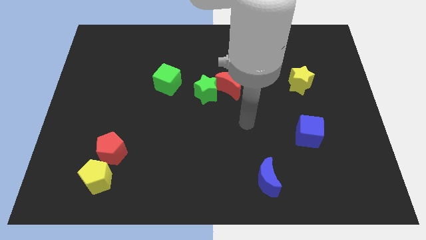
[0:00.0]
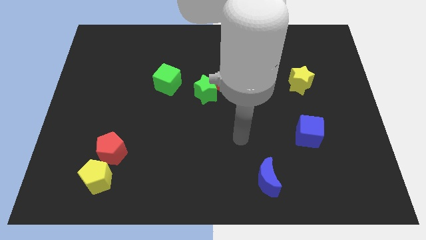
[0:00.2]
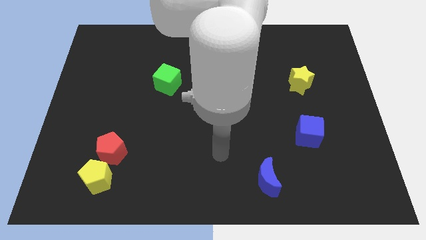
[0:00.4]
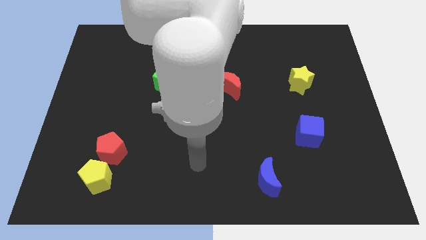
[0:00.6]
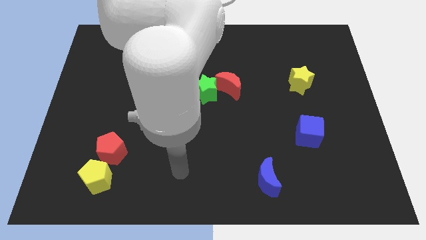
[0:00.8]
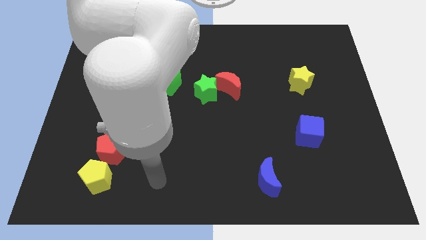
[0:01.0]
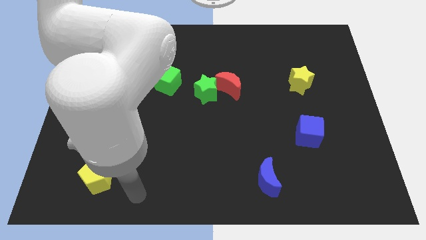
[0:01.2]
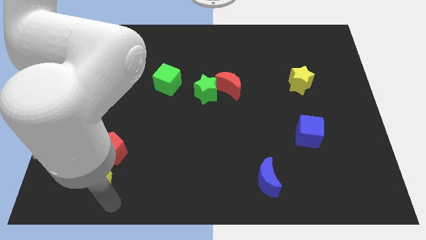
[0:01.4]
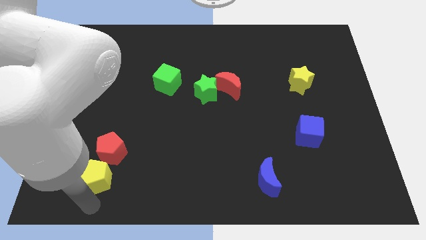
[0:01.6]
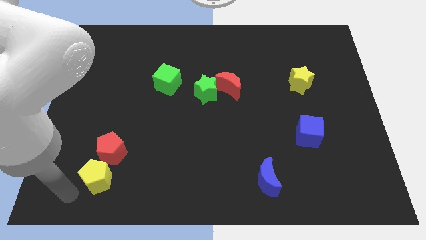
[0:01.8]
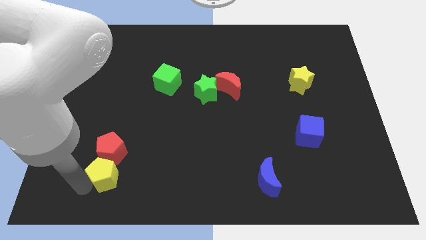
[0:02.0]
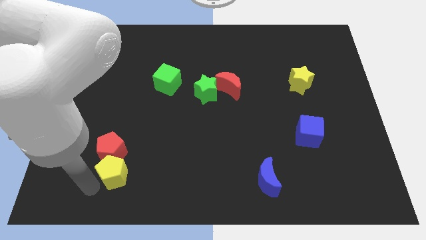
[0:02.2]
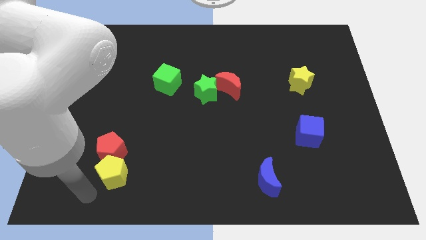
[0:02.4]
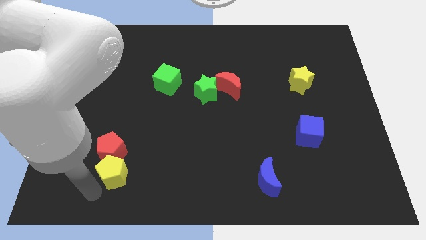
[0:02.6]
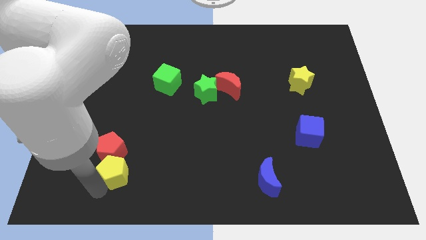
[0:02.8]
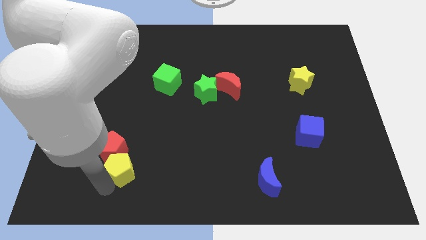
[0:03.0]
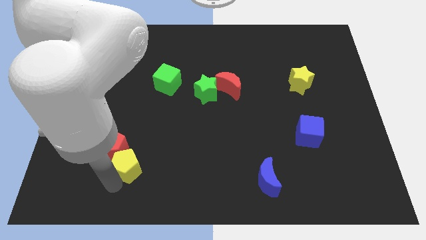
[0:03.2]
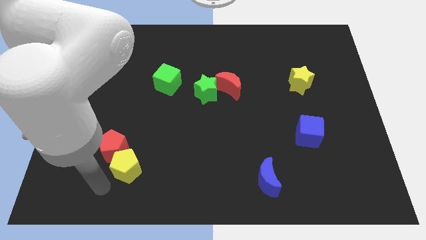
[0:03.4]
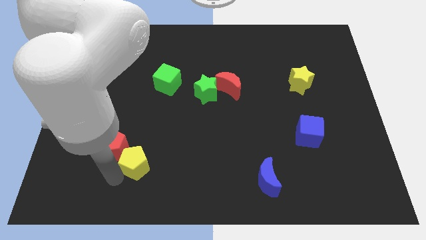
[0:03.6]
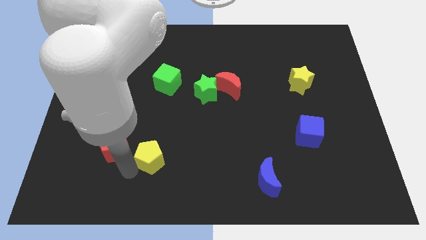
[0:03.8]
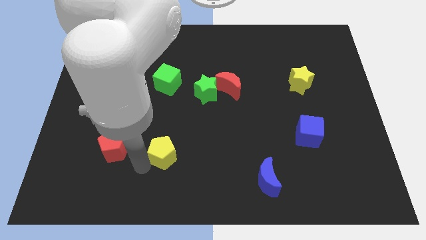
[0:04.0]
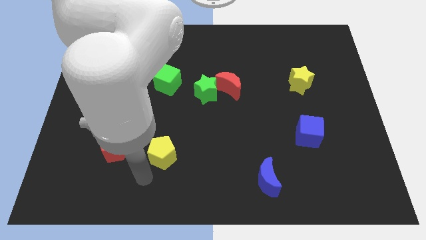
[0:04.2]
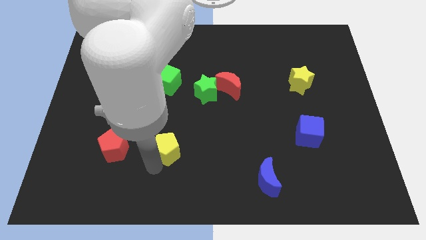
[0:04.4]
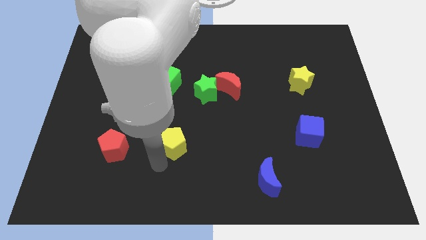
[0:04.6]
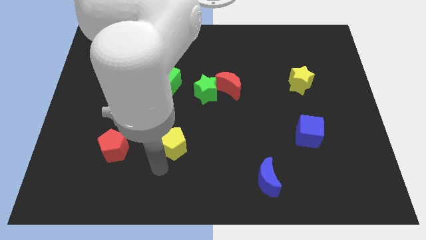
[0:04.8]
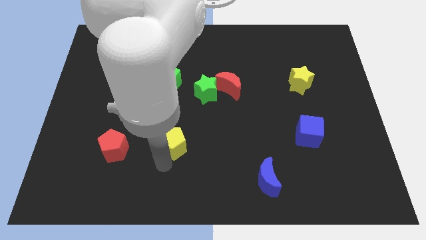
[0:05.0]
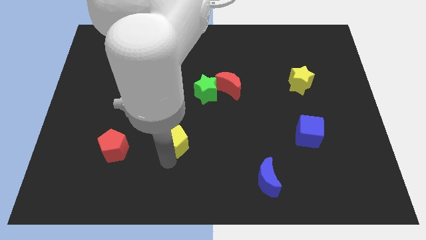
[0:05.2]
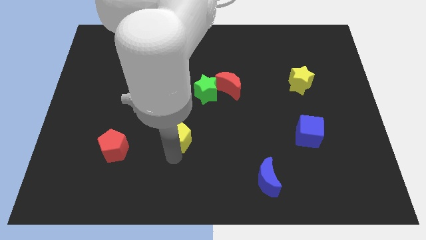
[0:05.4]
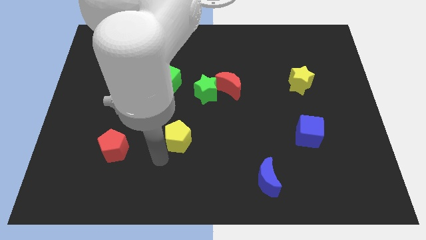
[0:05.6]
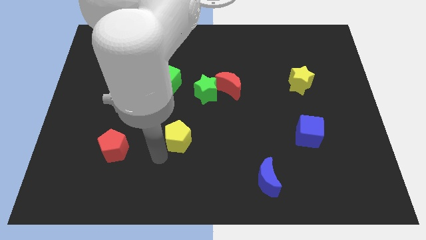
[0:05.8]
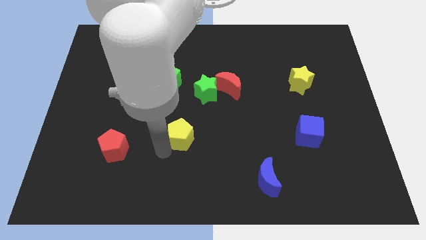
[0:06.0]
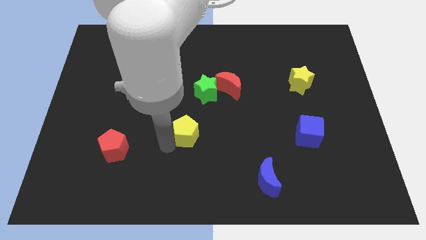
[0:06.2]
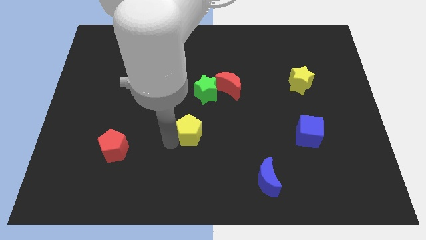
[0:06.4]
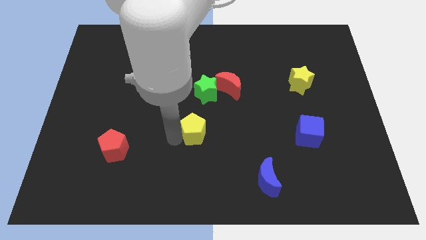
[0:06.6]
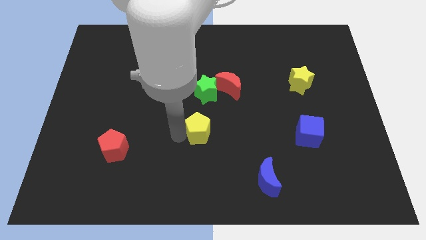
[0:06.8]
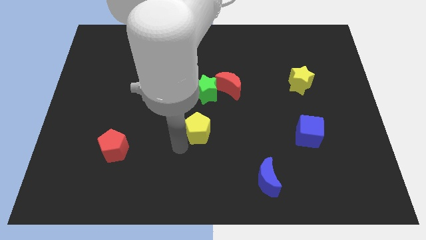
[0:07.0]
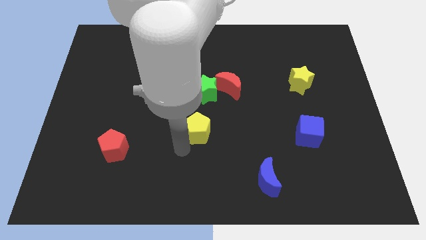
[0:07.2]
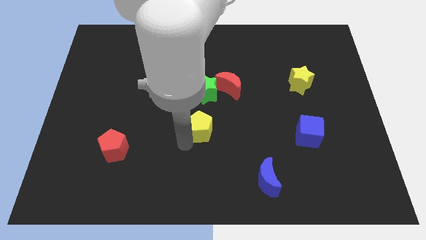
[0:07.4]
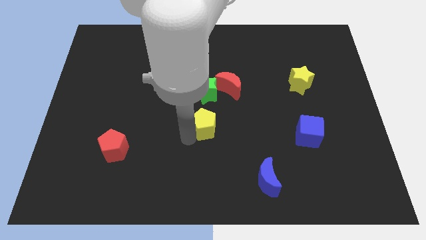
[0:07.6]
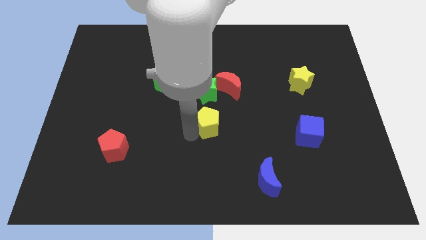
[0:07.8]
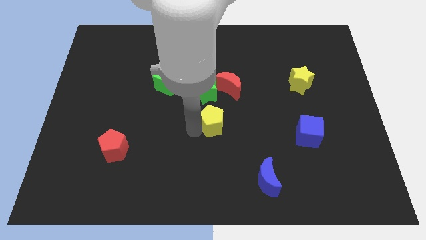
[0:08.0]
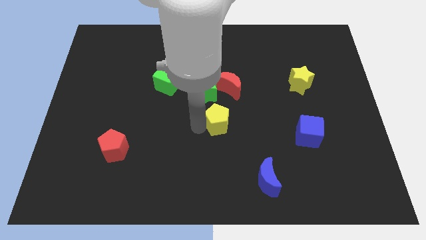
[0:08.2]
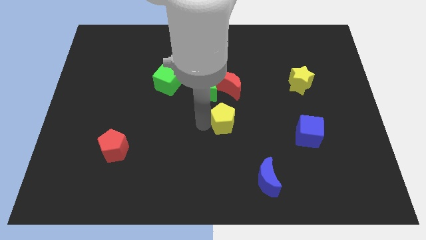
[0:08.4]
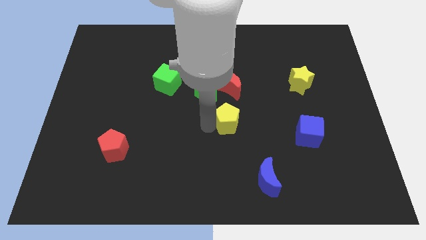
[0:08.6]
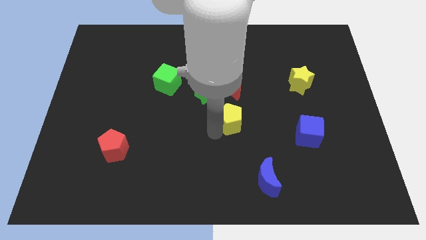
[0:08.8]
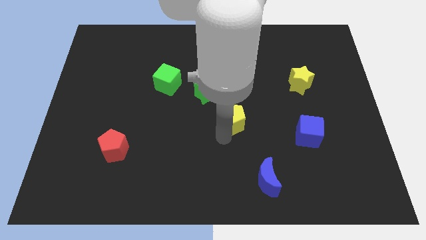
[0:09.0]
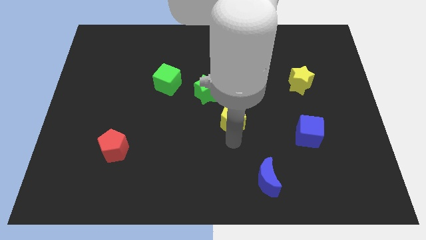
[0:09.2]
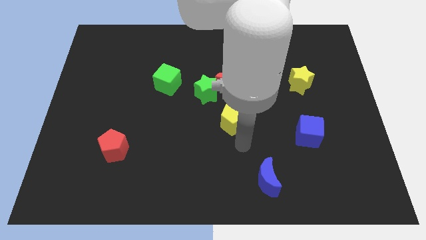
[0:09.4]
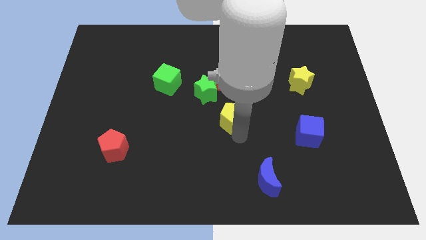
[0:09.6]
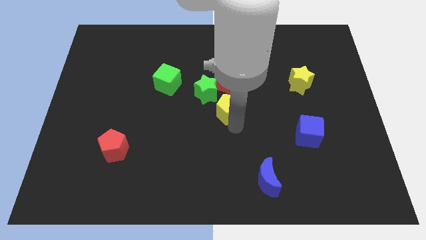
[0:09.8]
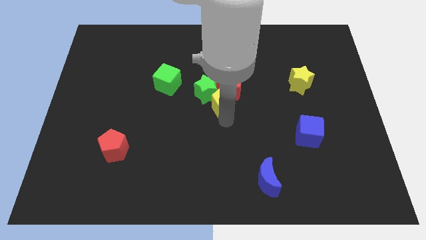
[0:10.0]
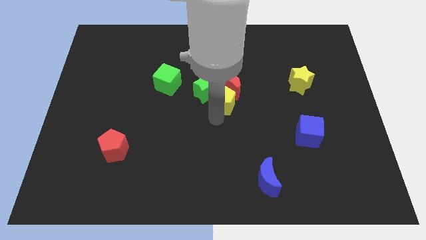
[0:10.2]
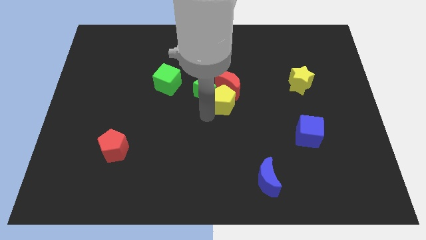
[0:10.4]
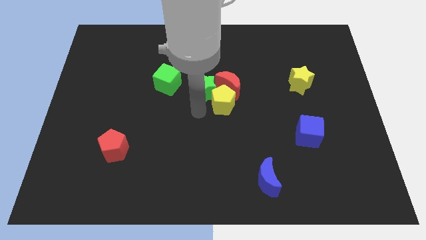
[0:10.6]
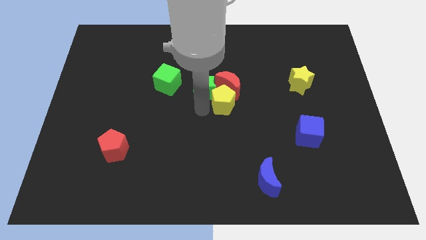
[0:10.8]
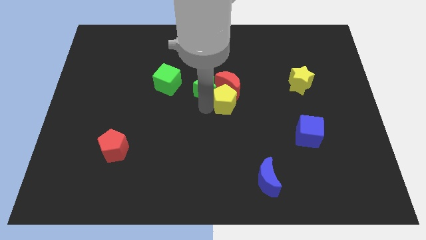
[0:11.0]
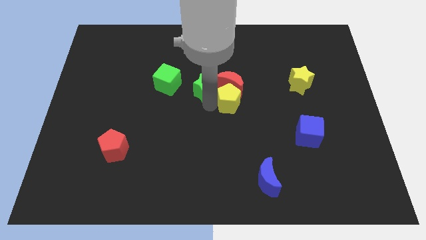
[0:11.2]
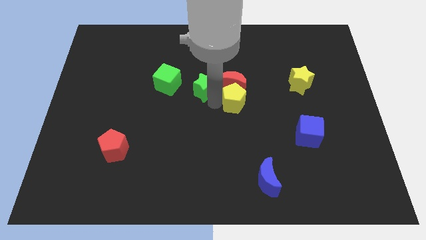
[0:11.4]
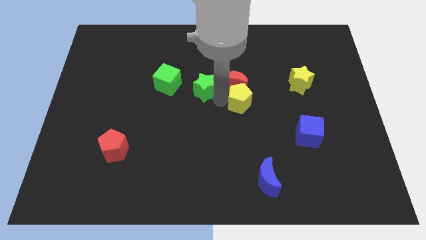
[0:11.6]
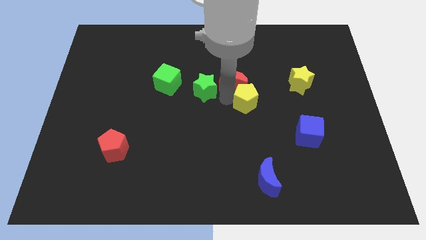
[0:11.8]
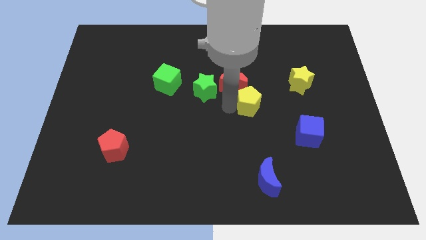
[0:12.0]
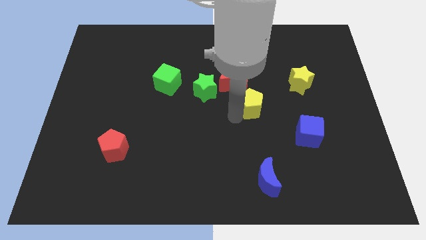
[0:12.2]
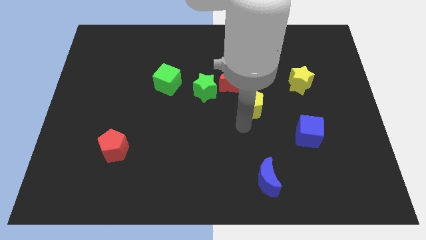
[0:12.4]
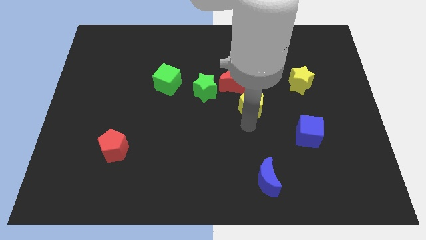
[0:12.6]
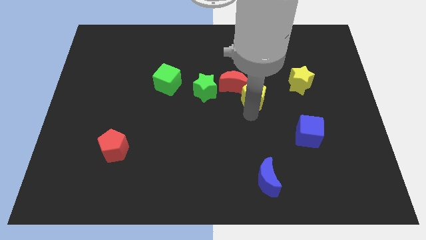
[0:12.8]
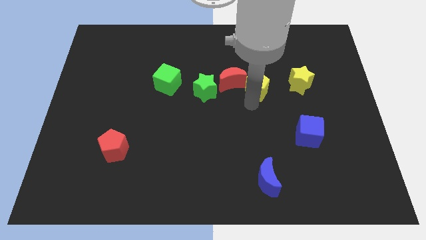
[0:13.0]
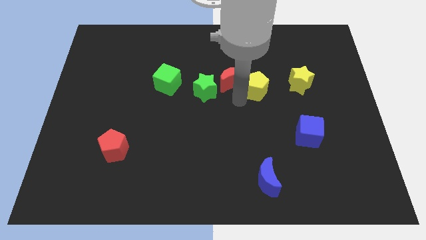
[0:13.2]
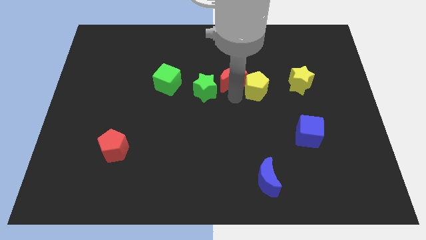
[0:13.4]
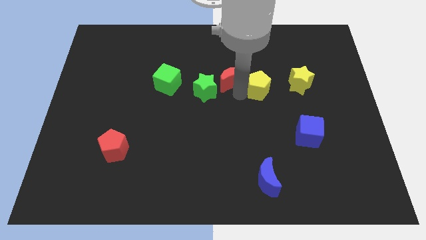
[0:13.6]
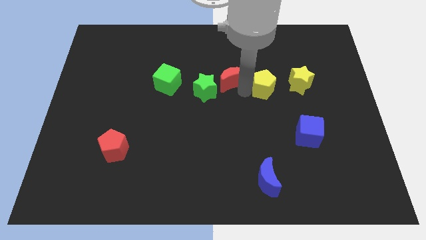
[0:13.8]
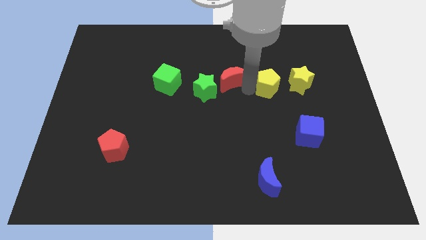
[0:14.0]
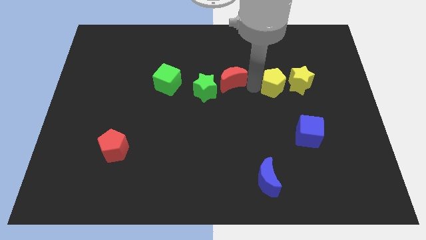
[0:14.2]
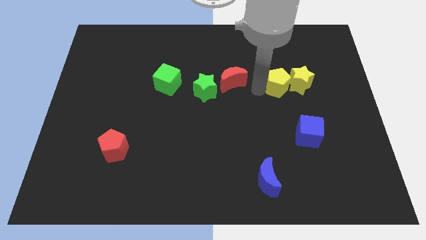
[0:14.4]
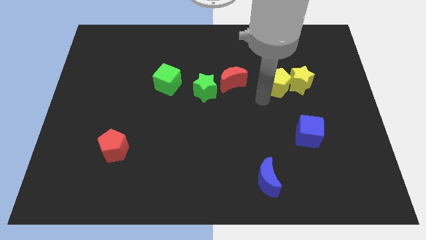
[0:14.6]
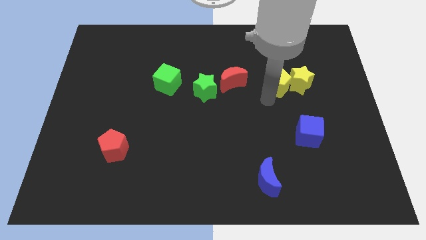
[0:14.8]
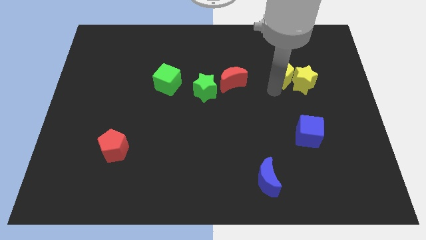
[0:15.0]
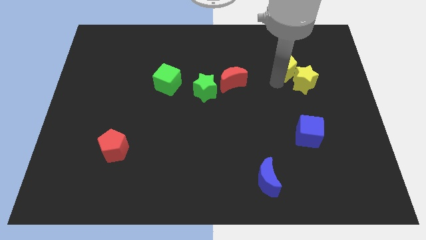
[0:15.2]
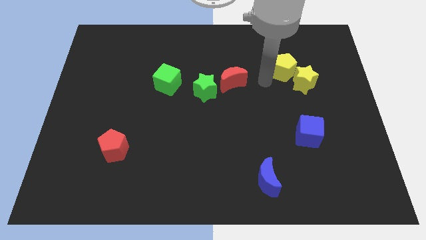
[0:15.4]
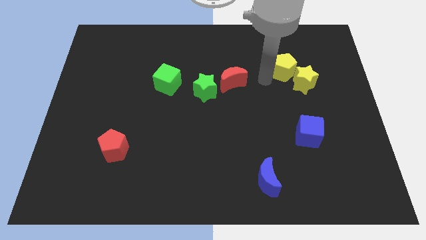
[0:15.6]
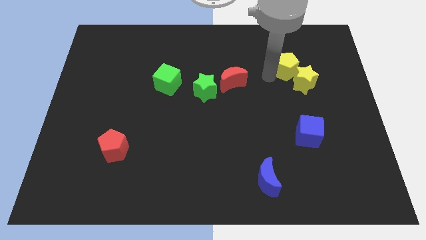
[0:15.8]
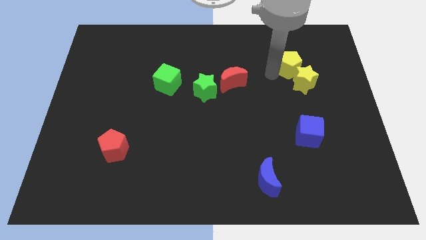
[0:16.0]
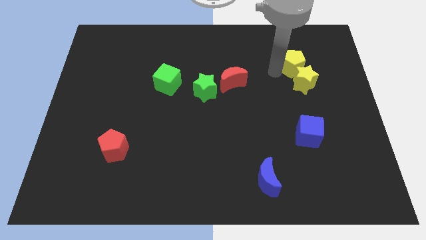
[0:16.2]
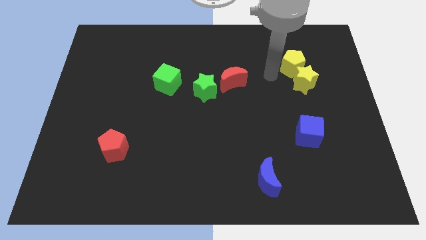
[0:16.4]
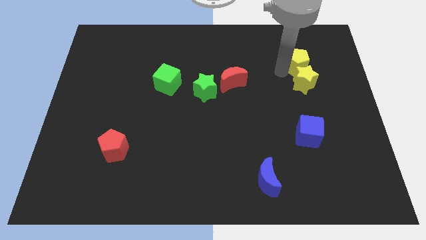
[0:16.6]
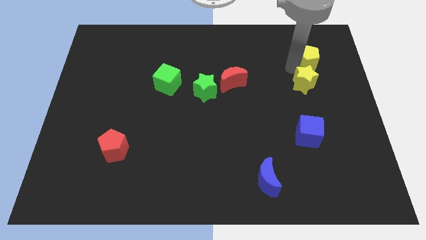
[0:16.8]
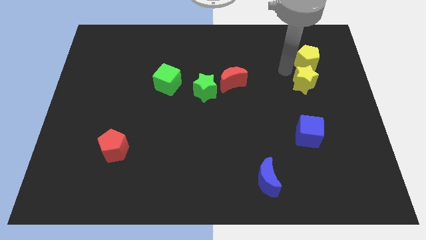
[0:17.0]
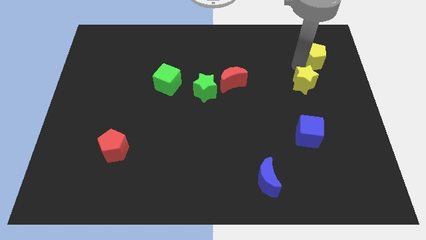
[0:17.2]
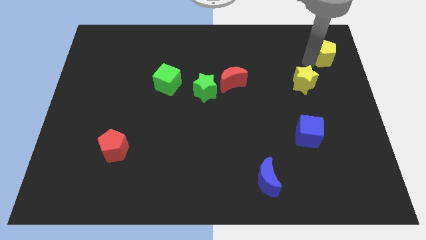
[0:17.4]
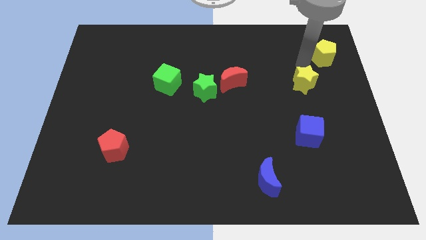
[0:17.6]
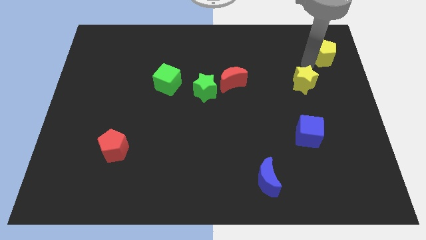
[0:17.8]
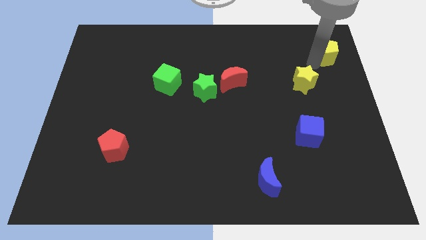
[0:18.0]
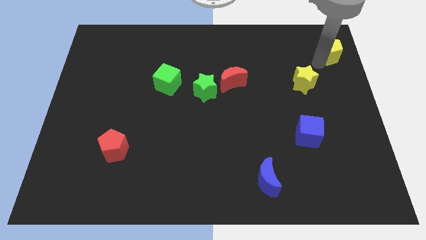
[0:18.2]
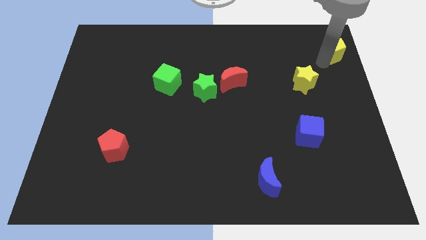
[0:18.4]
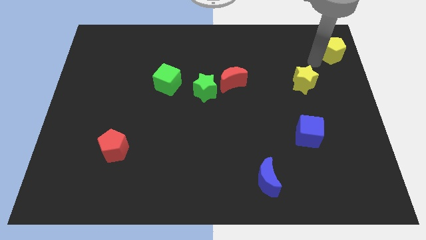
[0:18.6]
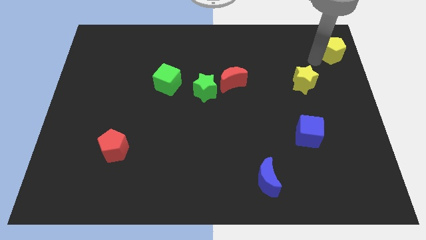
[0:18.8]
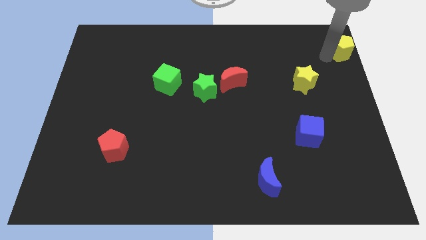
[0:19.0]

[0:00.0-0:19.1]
put the yellow pentagon to the top right
